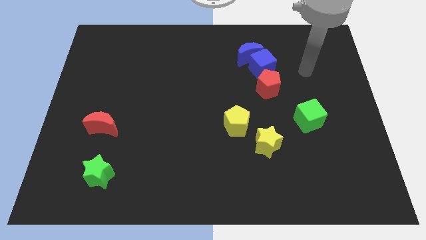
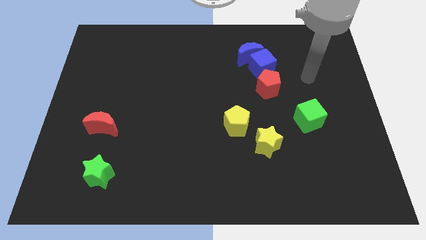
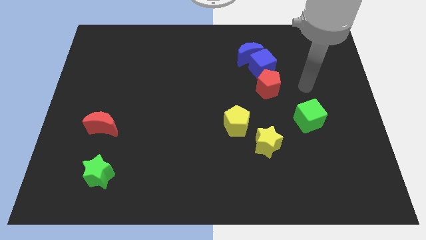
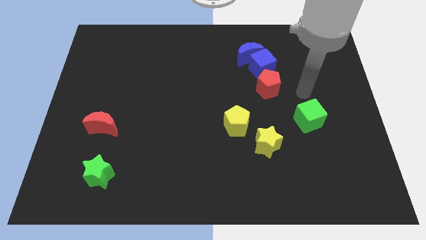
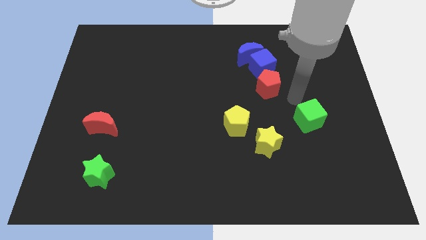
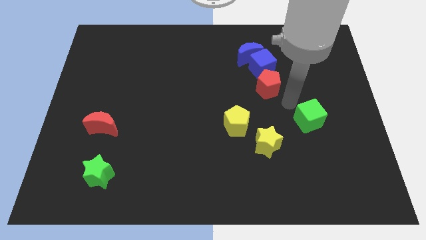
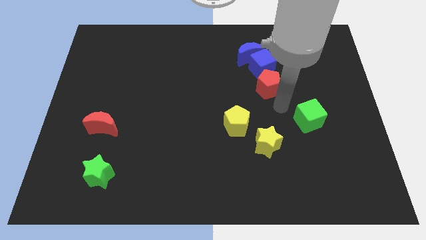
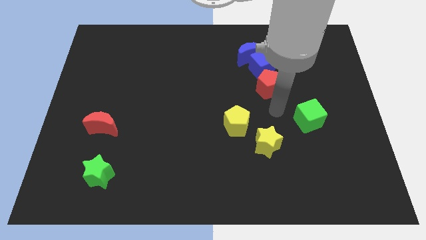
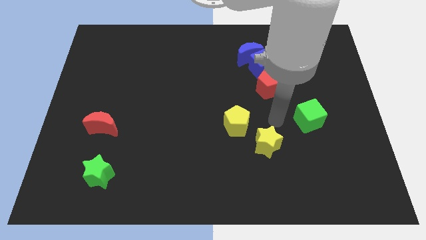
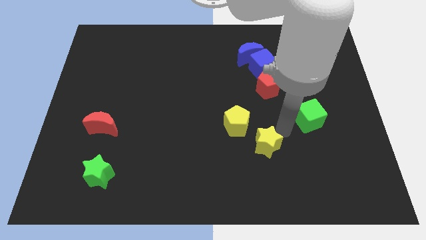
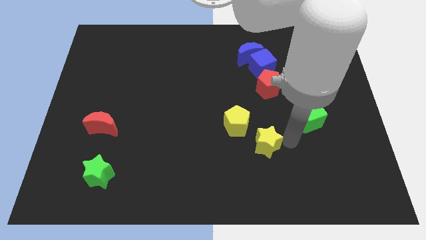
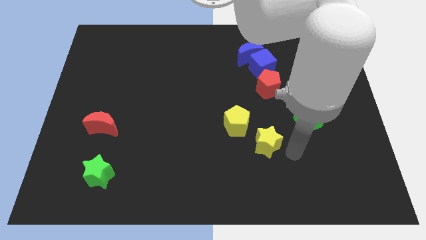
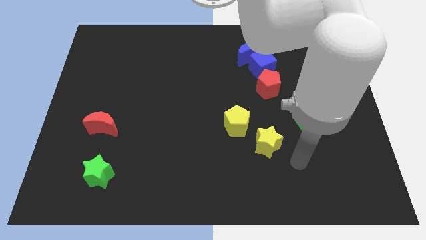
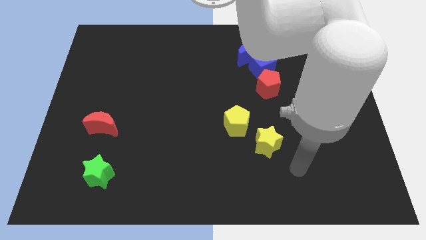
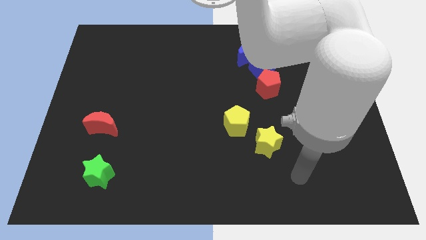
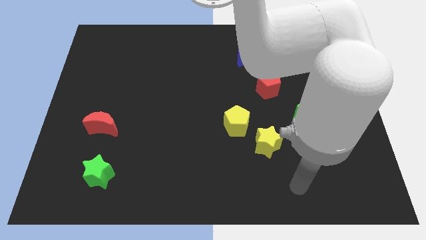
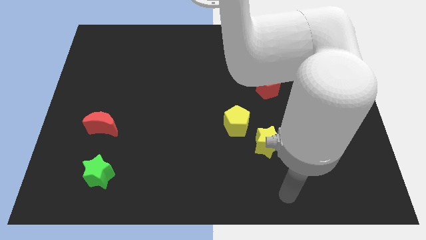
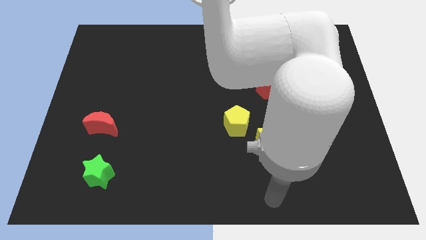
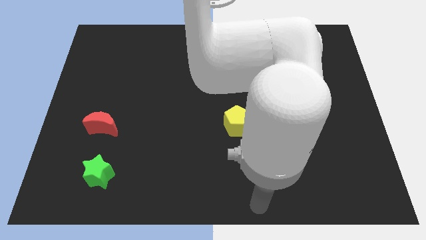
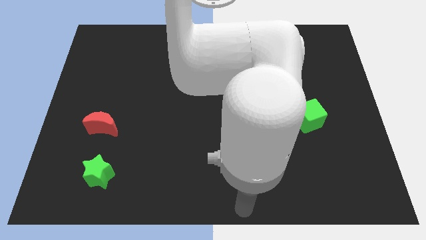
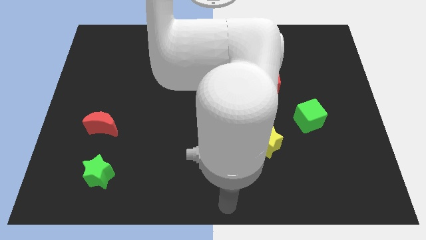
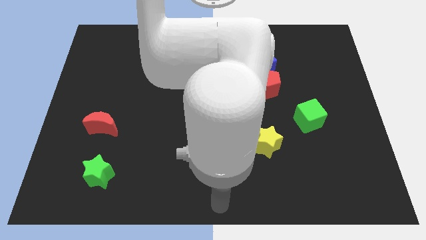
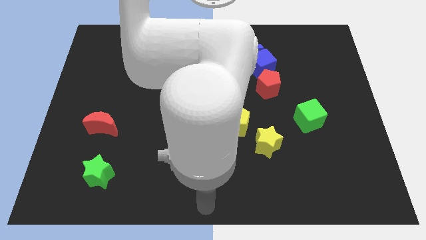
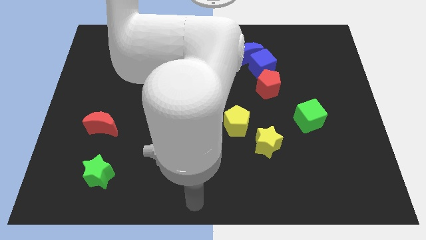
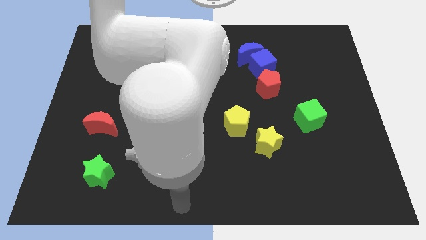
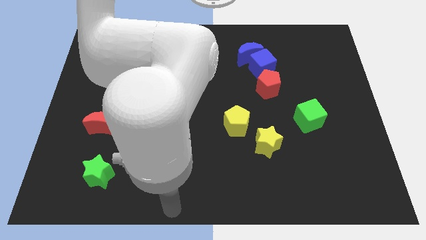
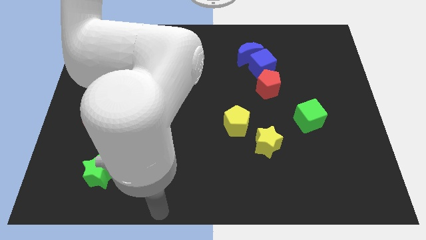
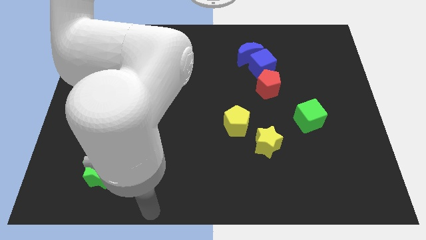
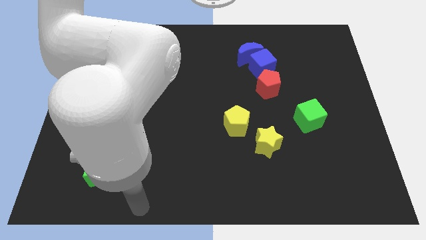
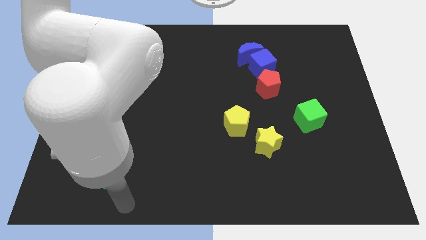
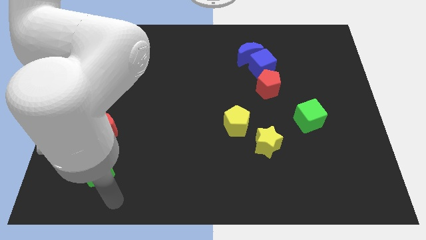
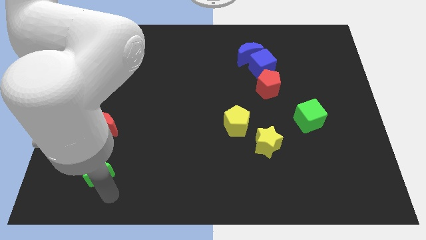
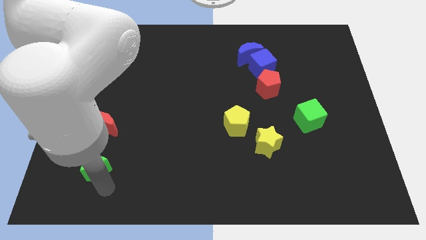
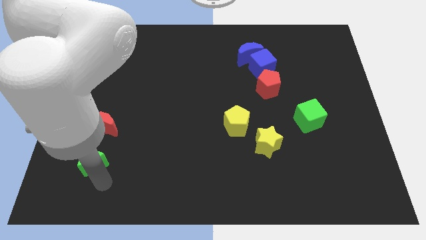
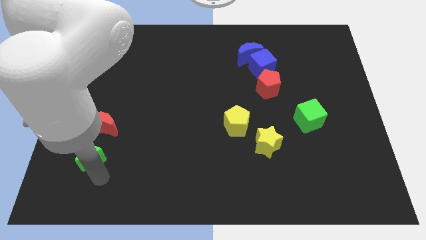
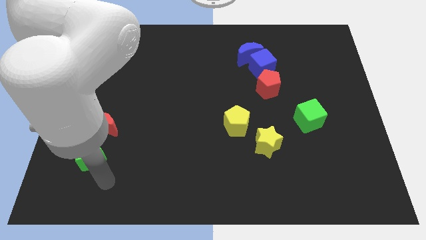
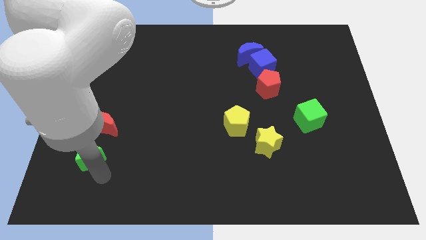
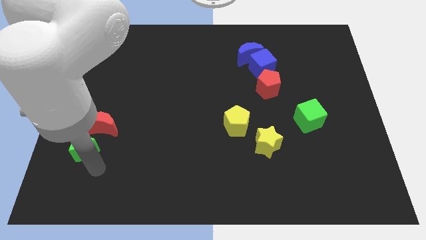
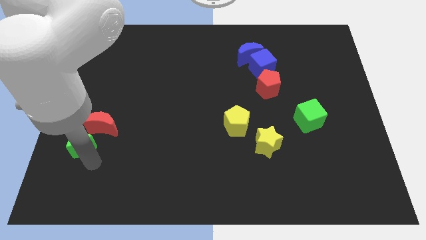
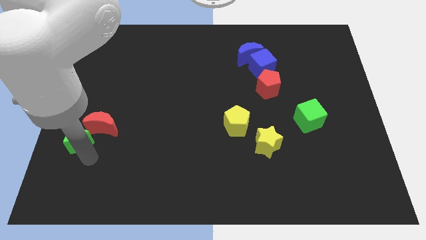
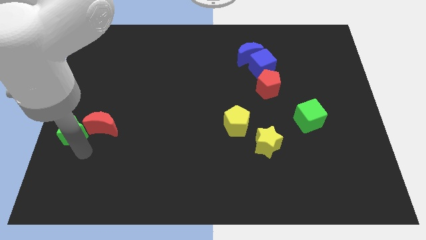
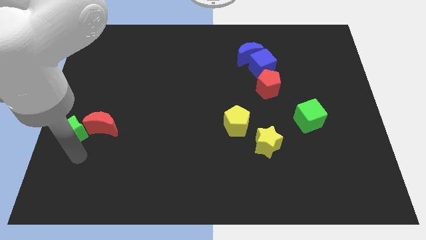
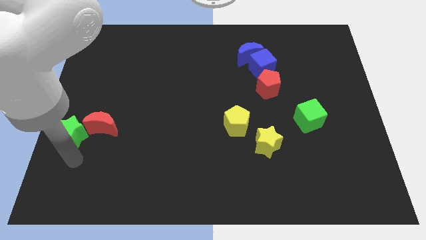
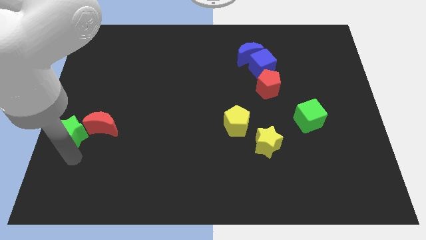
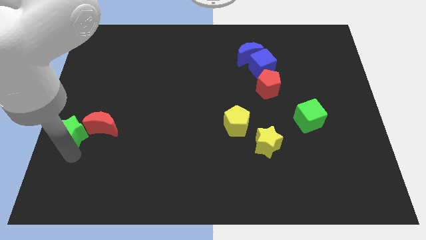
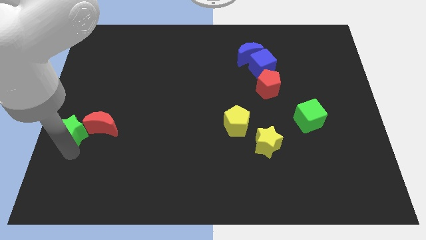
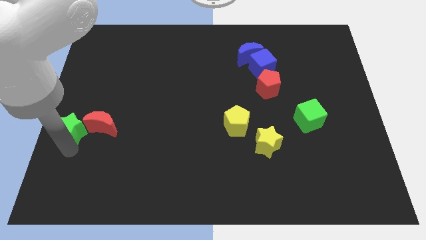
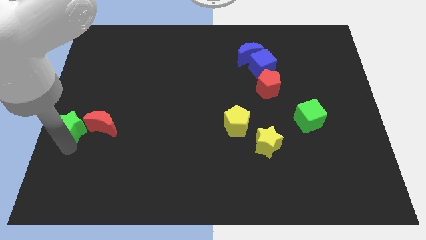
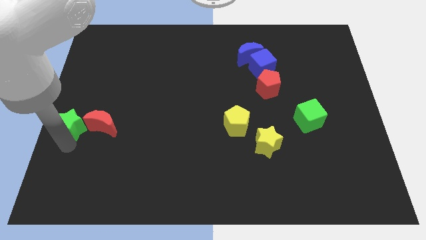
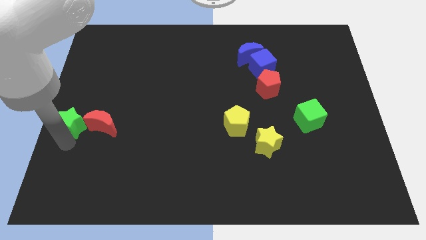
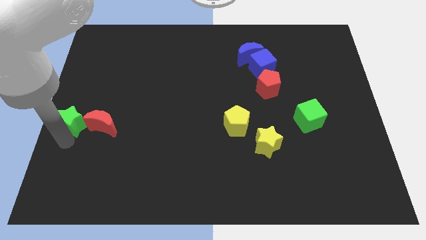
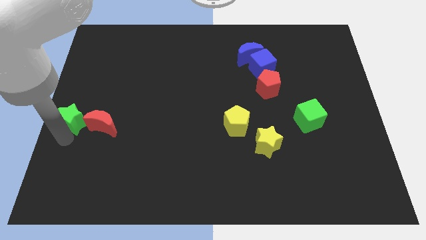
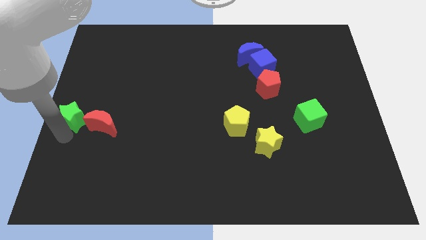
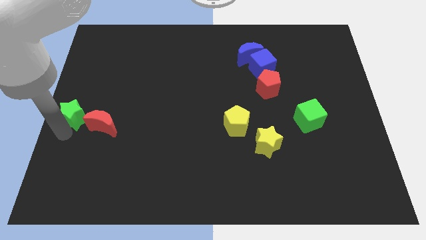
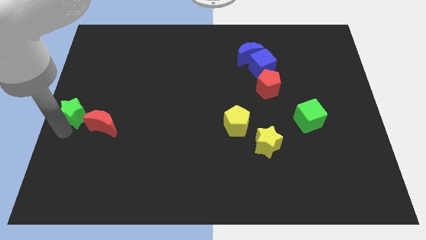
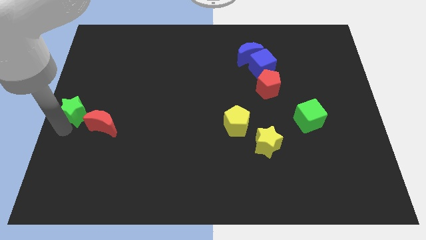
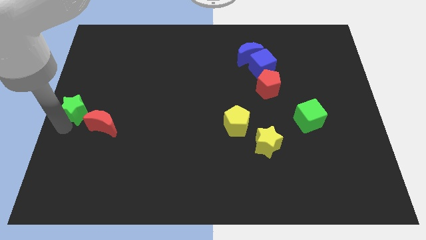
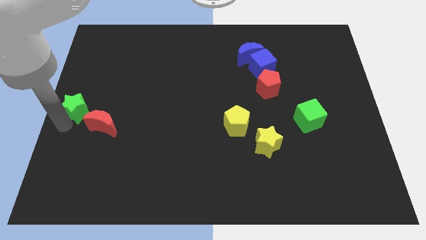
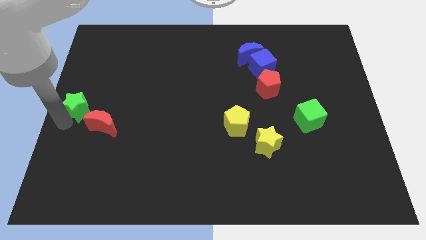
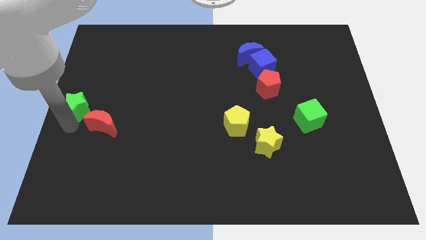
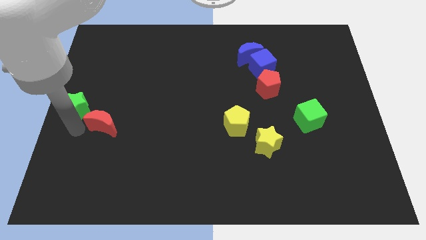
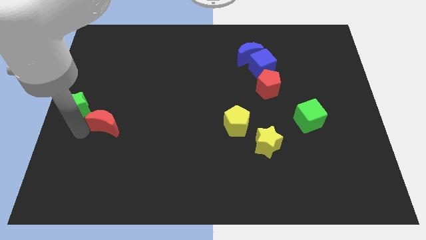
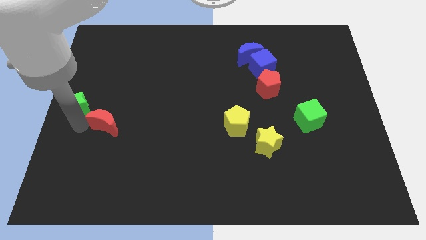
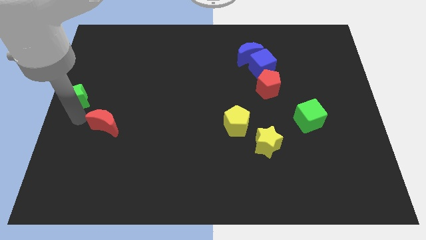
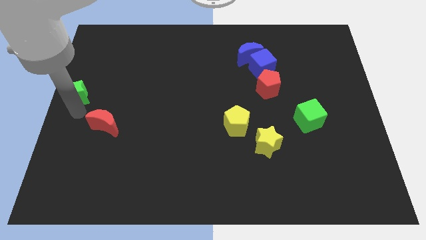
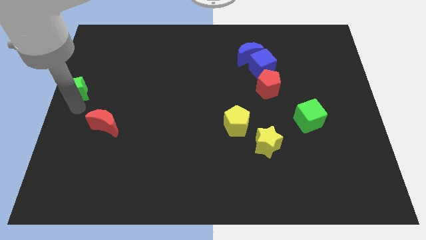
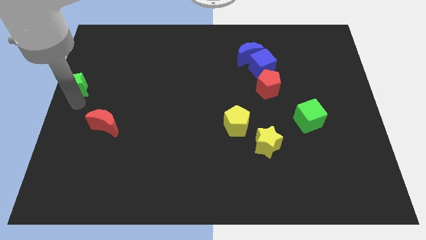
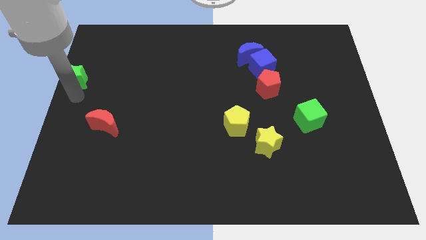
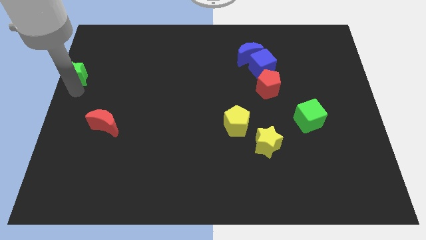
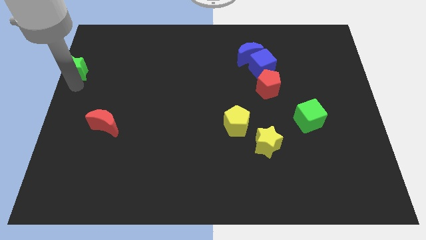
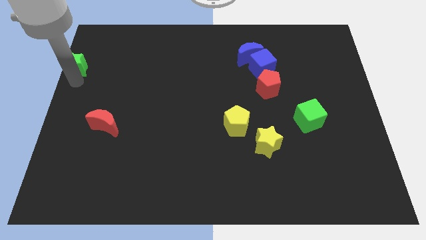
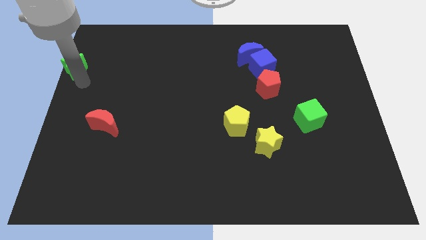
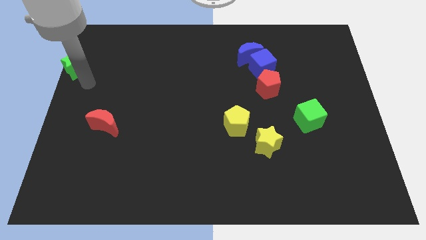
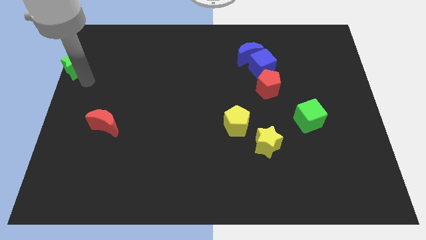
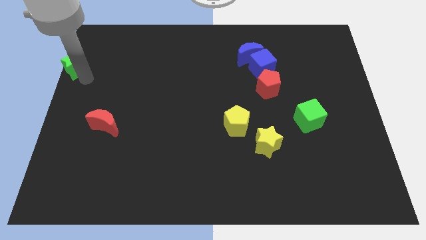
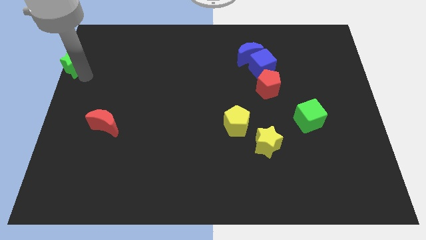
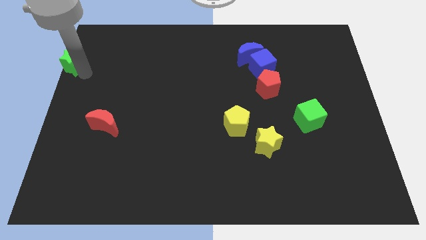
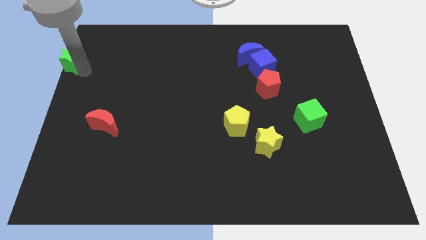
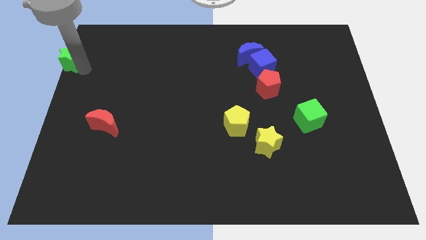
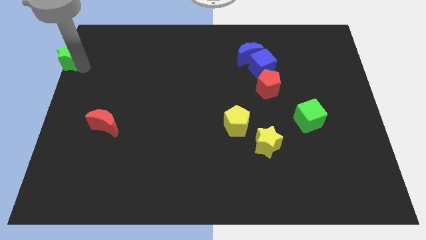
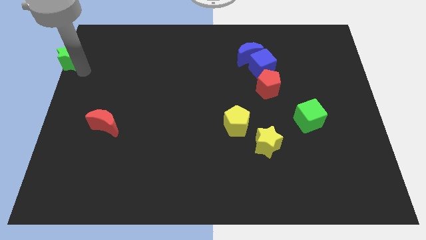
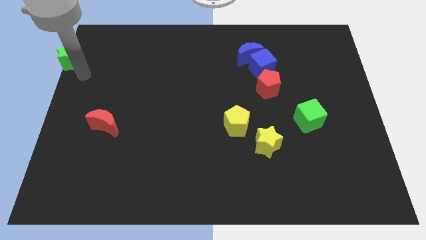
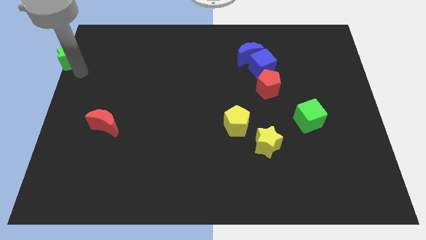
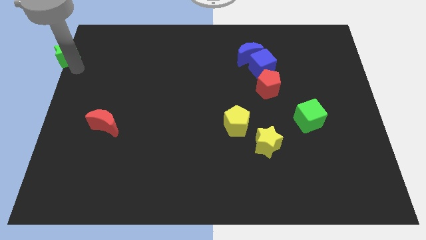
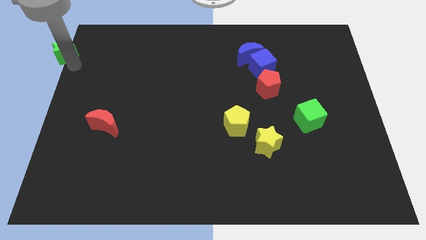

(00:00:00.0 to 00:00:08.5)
slide the green star to the top left corner
